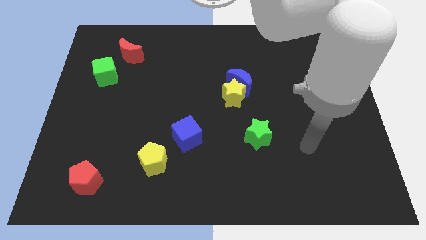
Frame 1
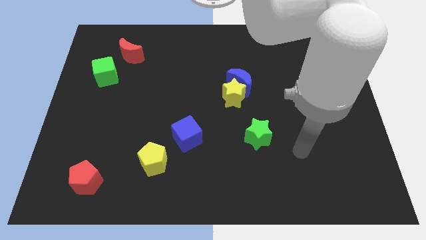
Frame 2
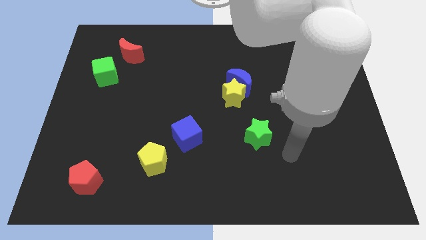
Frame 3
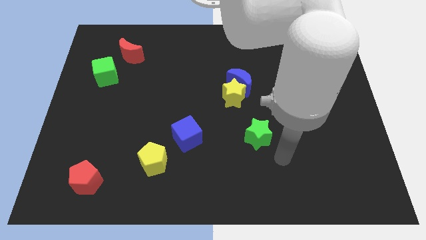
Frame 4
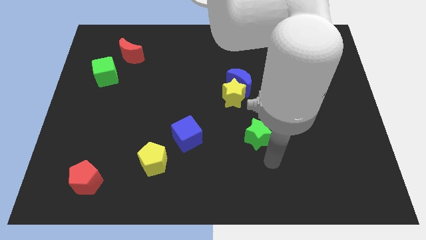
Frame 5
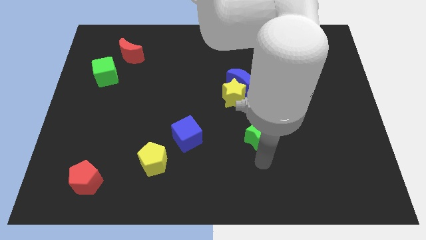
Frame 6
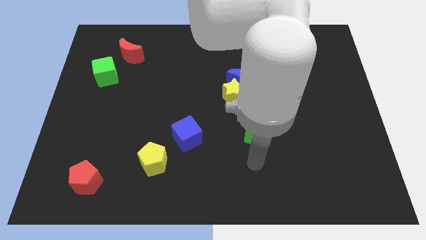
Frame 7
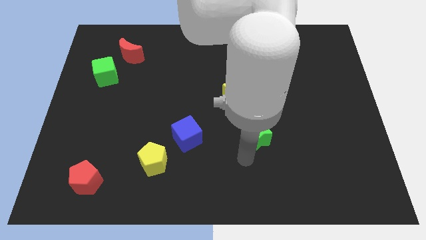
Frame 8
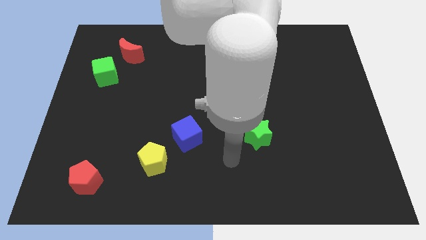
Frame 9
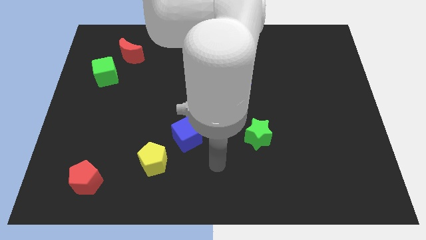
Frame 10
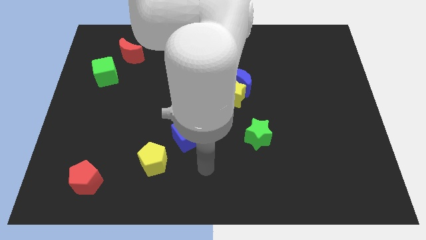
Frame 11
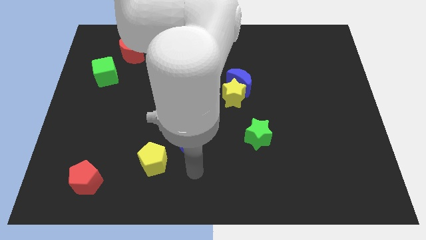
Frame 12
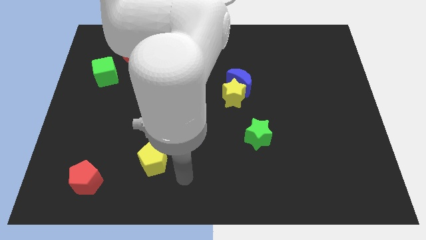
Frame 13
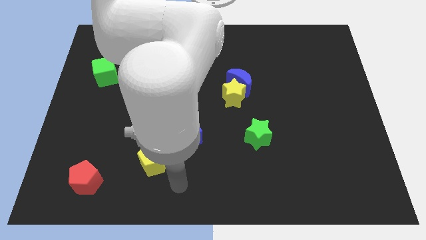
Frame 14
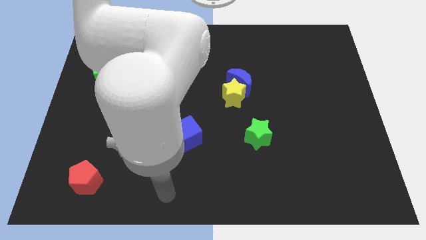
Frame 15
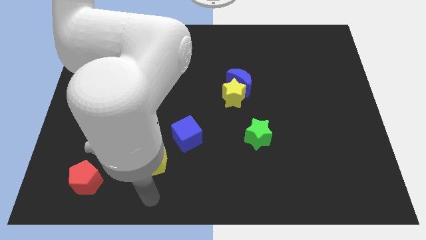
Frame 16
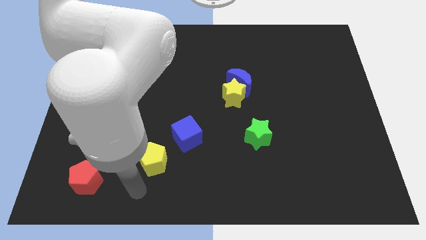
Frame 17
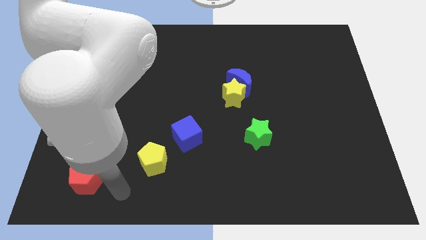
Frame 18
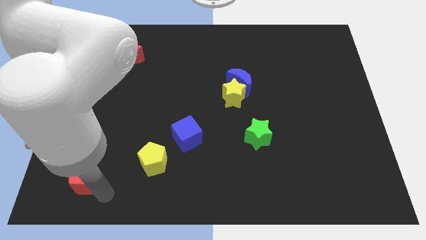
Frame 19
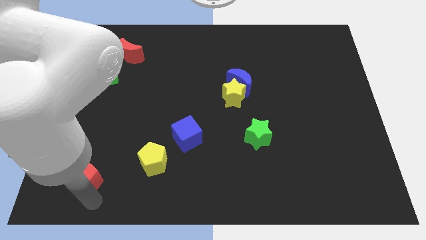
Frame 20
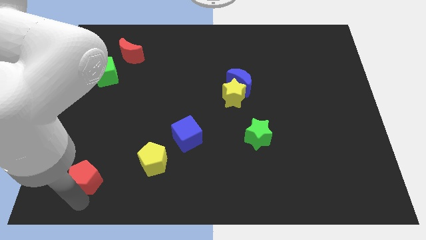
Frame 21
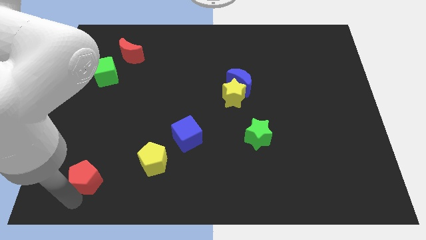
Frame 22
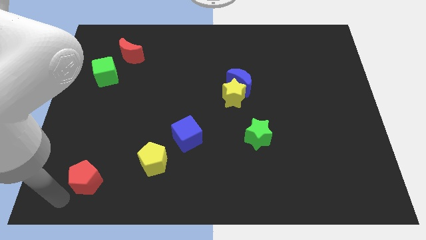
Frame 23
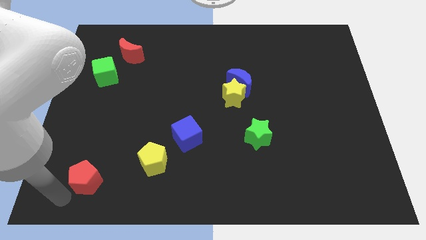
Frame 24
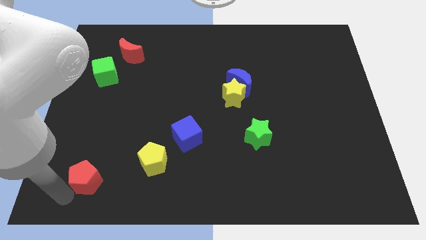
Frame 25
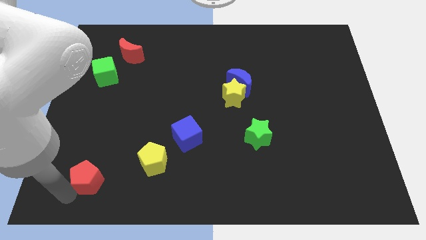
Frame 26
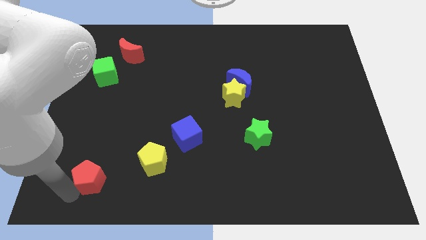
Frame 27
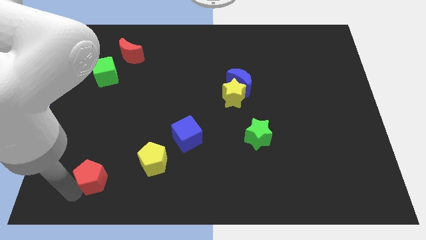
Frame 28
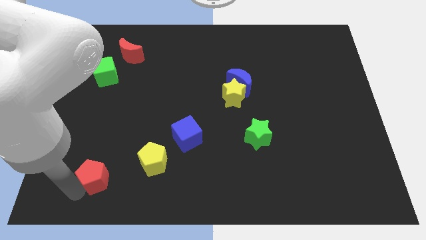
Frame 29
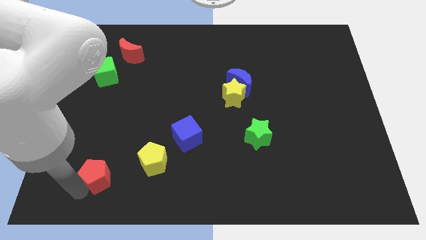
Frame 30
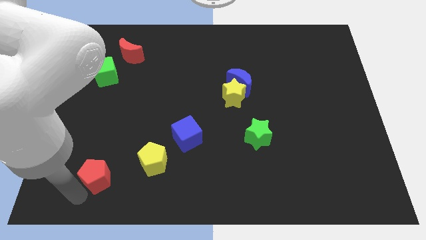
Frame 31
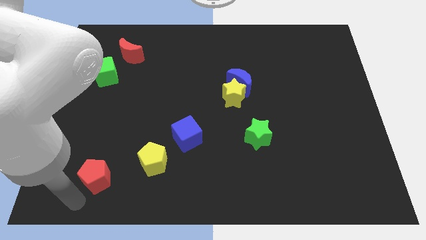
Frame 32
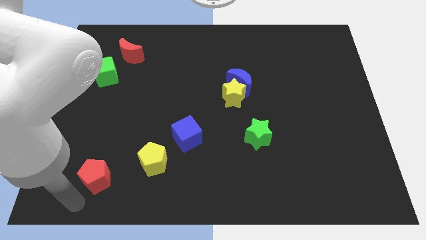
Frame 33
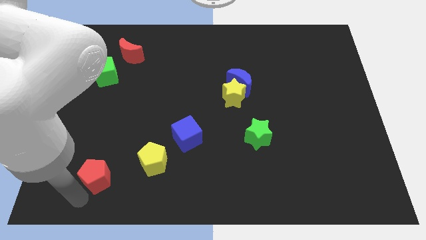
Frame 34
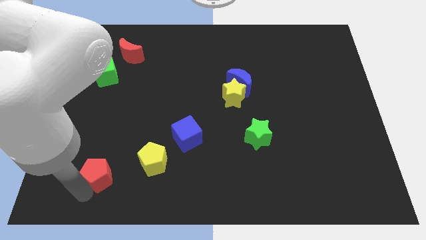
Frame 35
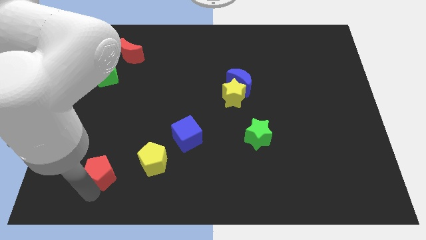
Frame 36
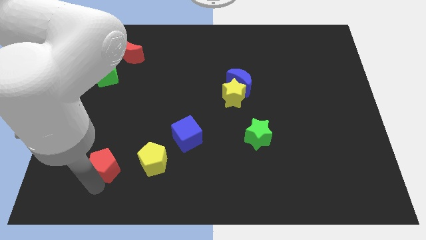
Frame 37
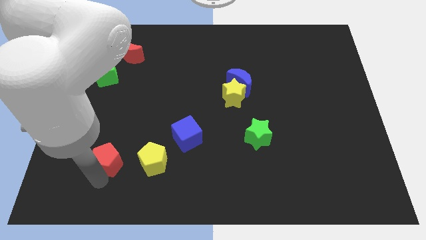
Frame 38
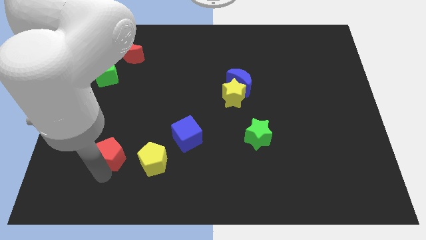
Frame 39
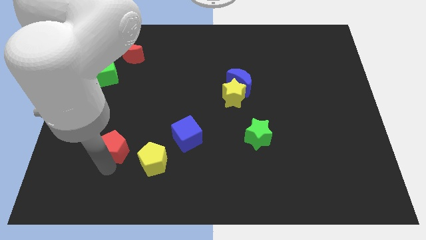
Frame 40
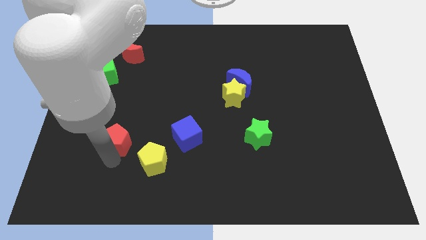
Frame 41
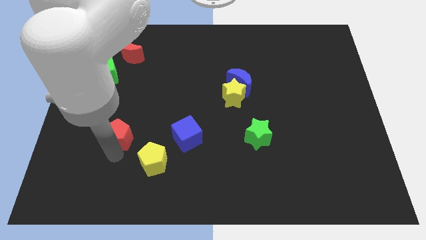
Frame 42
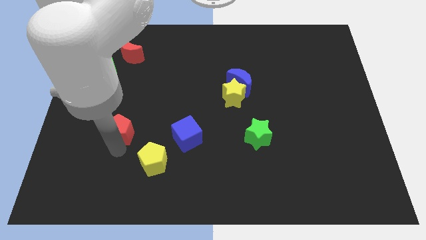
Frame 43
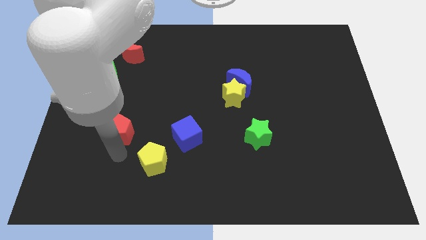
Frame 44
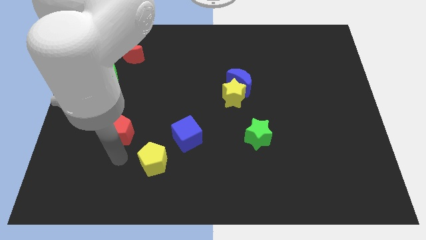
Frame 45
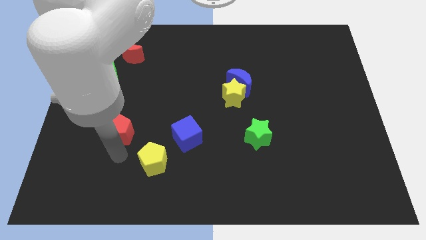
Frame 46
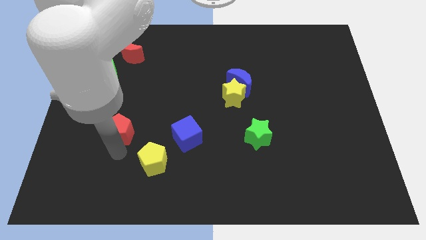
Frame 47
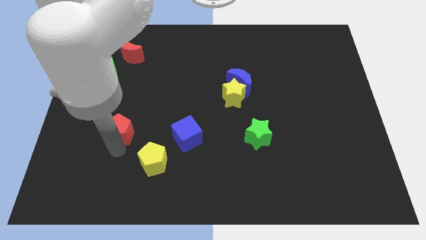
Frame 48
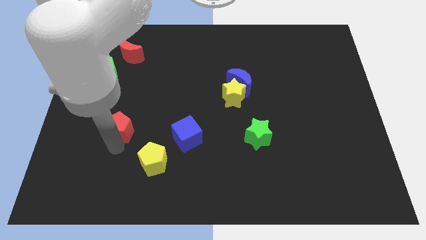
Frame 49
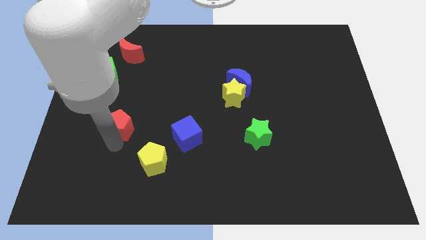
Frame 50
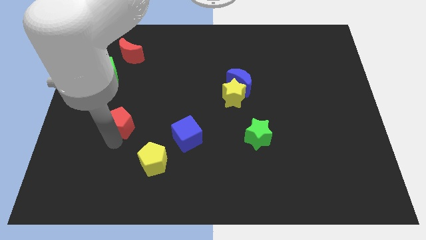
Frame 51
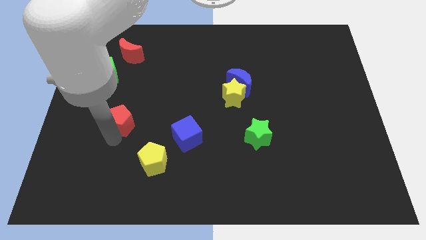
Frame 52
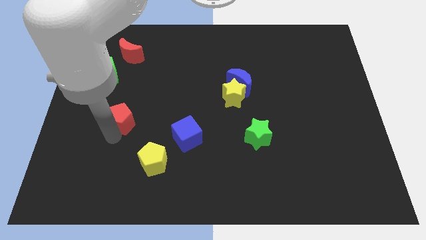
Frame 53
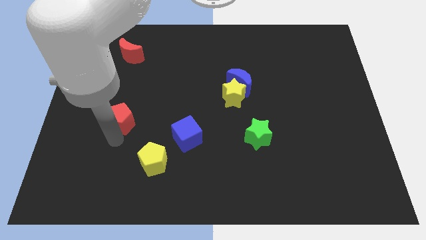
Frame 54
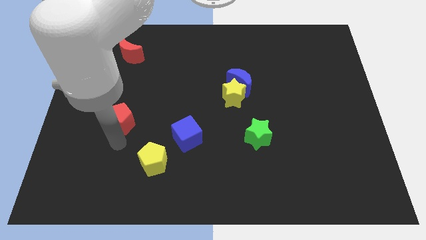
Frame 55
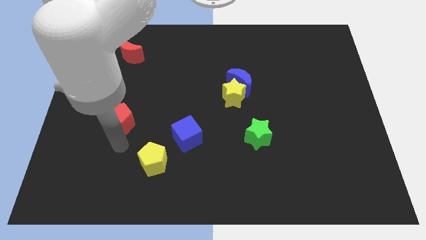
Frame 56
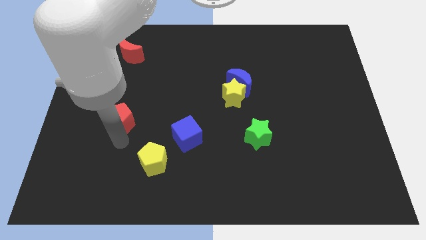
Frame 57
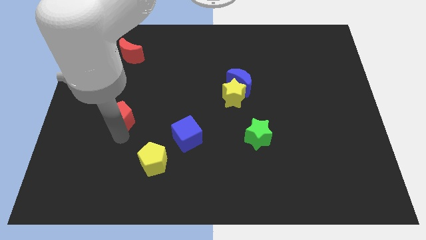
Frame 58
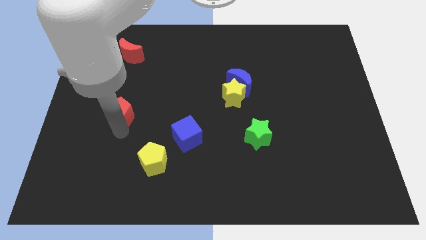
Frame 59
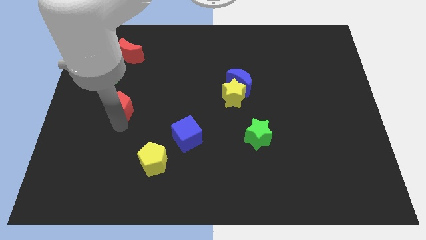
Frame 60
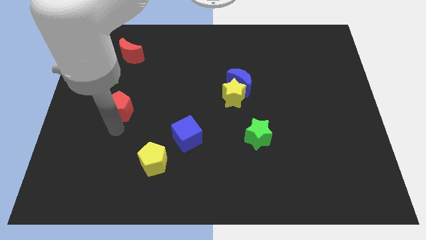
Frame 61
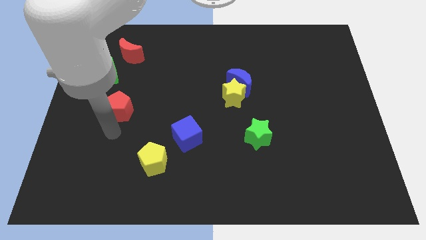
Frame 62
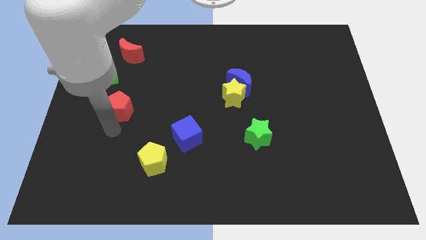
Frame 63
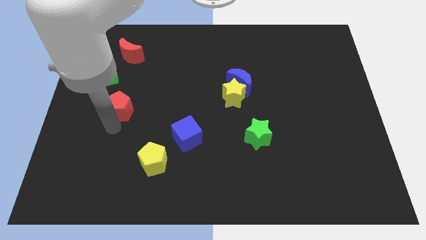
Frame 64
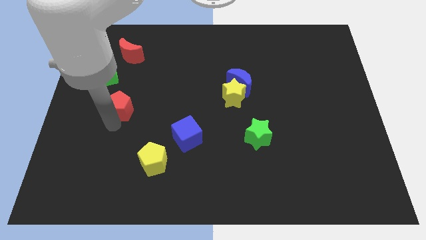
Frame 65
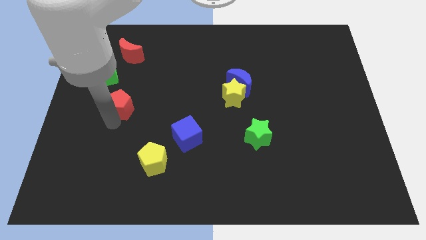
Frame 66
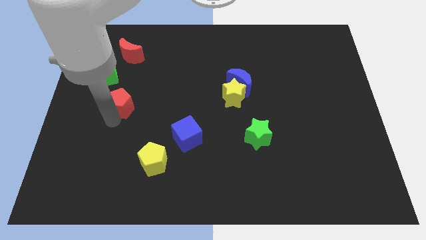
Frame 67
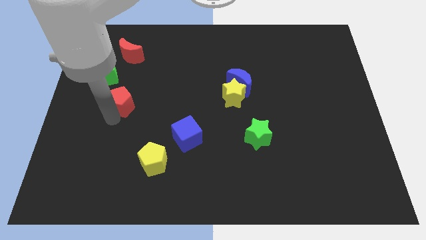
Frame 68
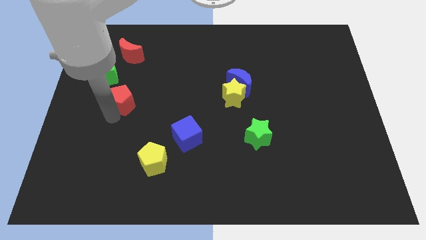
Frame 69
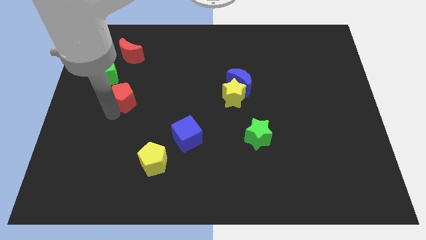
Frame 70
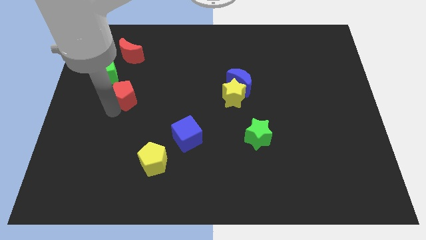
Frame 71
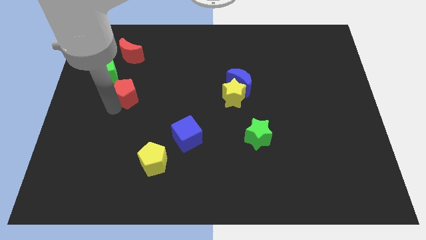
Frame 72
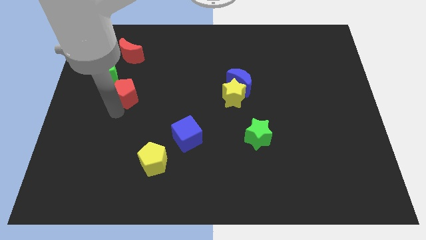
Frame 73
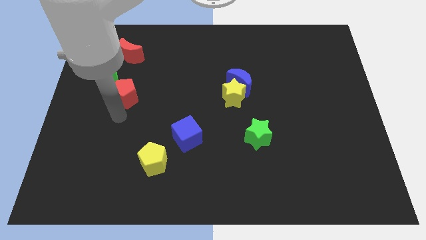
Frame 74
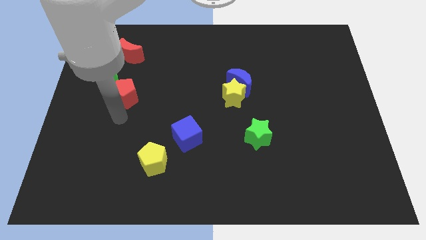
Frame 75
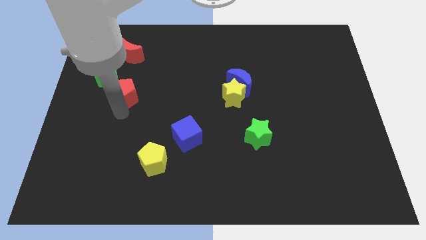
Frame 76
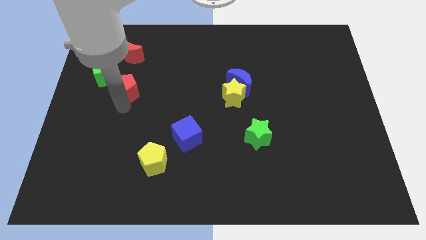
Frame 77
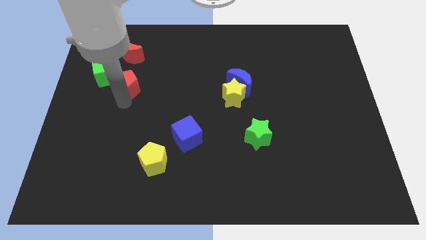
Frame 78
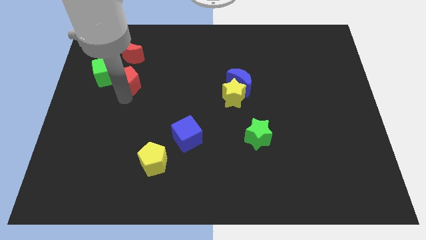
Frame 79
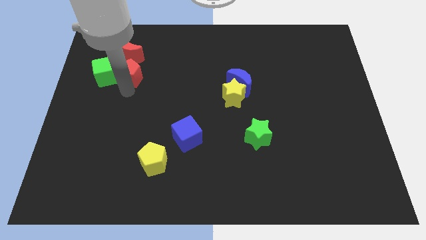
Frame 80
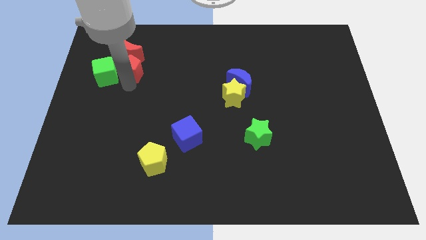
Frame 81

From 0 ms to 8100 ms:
put the red pentagon towards the red moon
